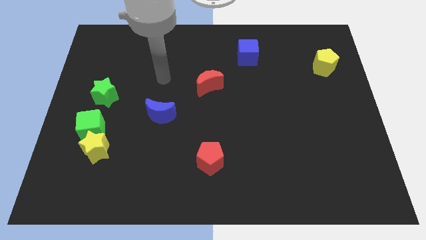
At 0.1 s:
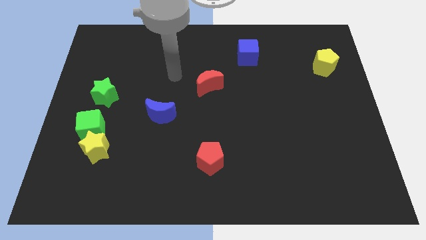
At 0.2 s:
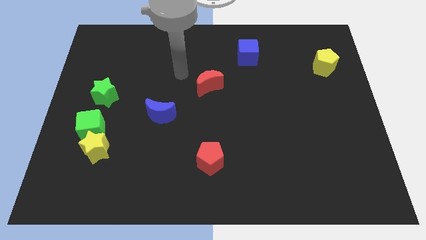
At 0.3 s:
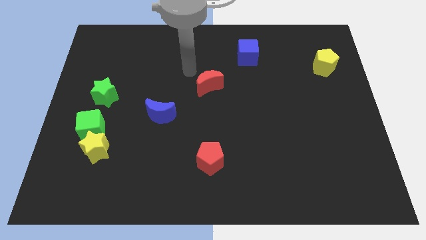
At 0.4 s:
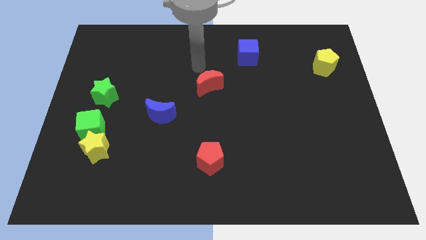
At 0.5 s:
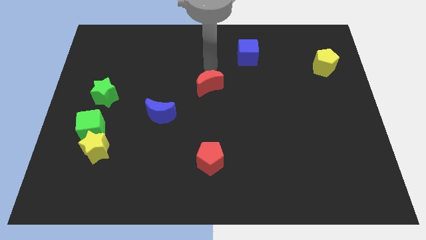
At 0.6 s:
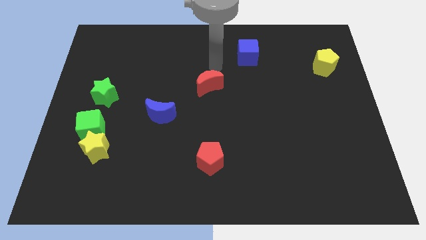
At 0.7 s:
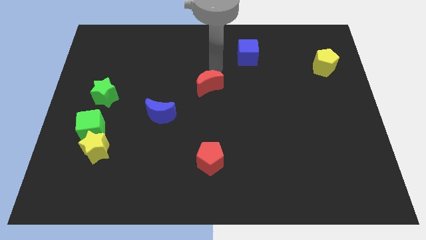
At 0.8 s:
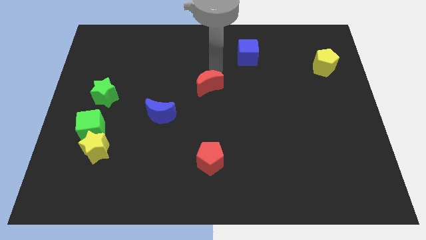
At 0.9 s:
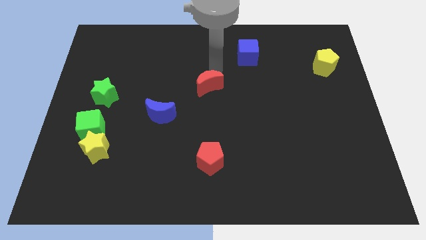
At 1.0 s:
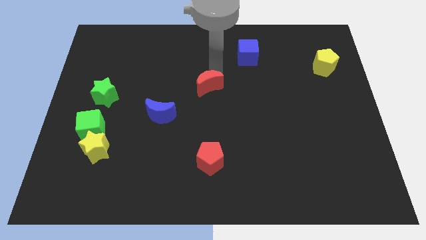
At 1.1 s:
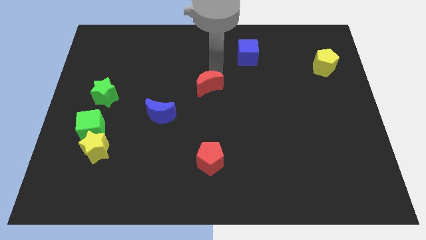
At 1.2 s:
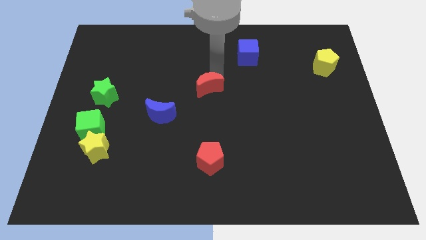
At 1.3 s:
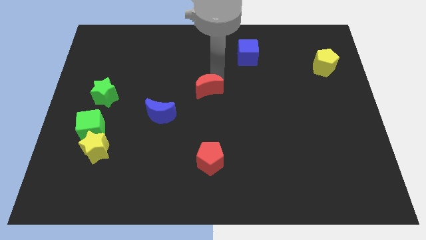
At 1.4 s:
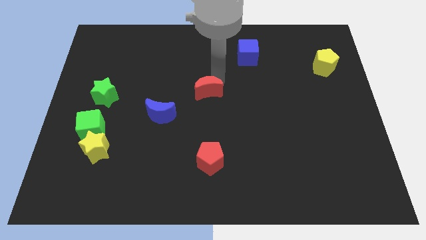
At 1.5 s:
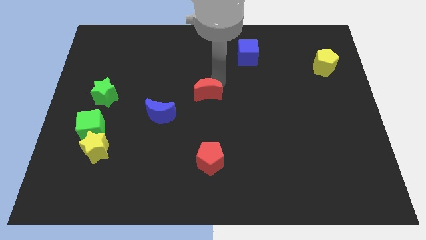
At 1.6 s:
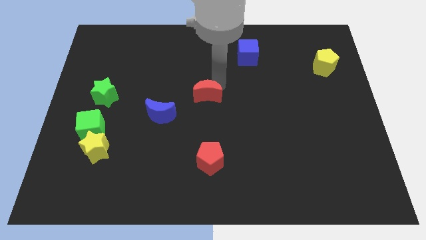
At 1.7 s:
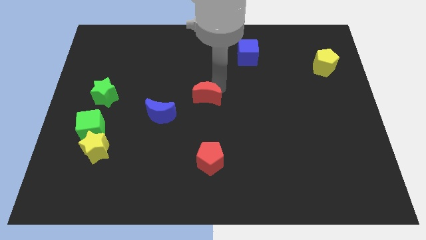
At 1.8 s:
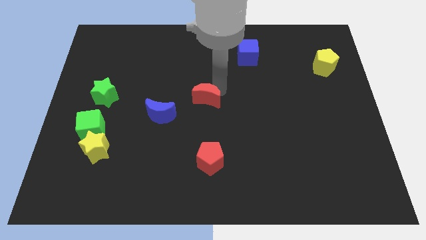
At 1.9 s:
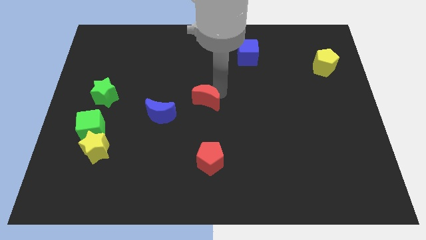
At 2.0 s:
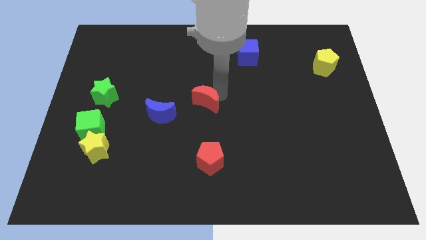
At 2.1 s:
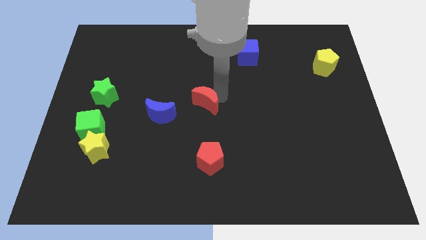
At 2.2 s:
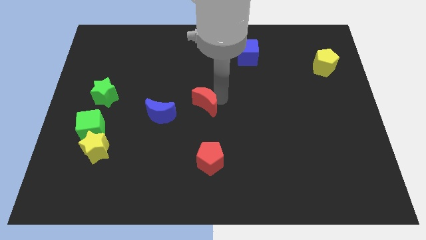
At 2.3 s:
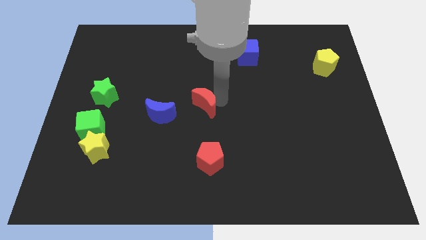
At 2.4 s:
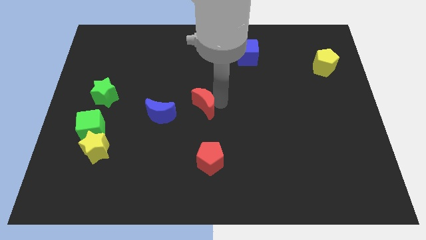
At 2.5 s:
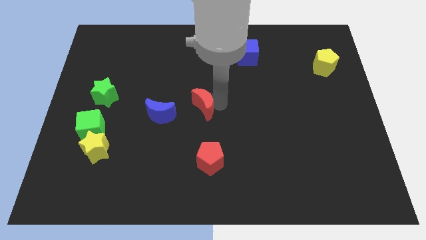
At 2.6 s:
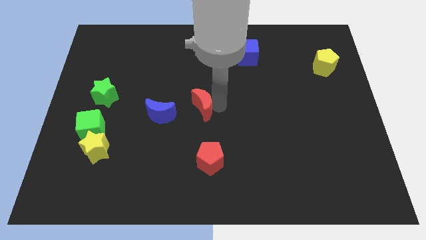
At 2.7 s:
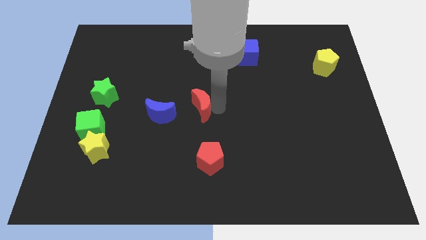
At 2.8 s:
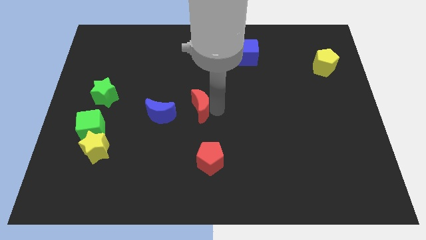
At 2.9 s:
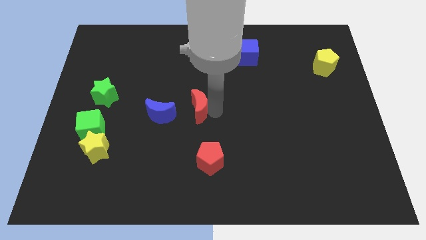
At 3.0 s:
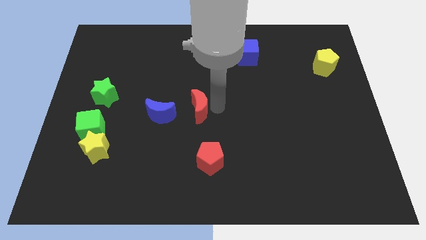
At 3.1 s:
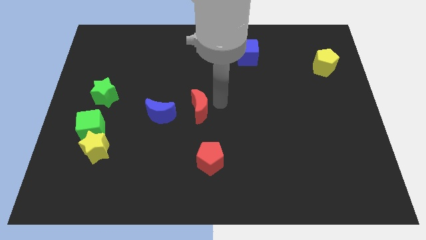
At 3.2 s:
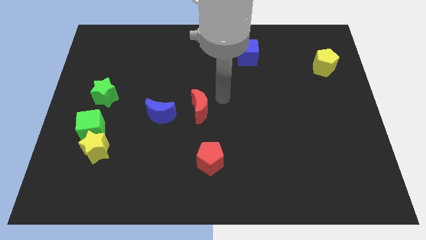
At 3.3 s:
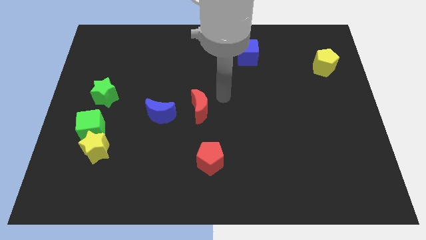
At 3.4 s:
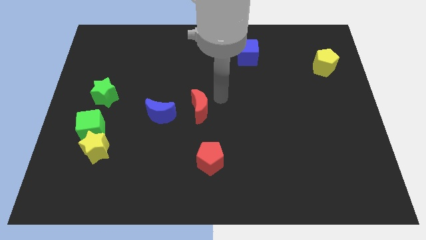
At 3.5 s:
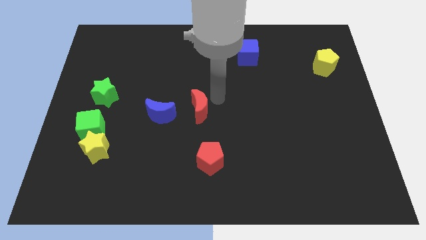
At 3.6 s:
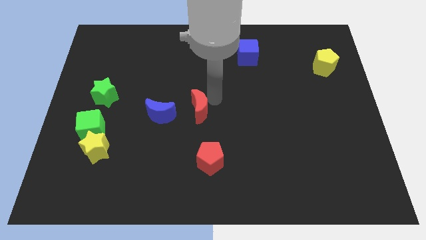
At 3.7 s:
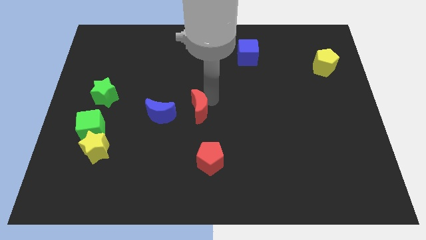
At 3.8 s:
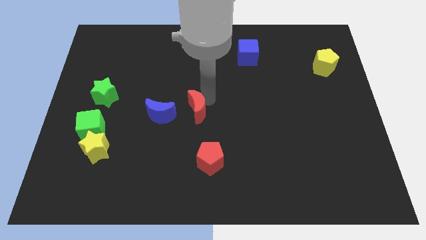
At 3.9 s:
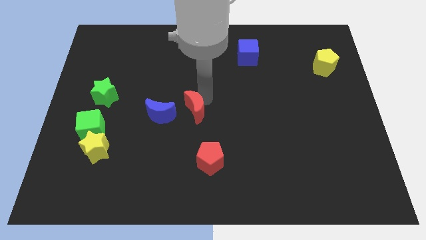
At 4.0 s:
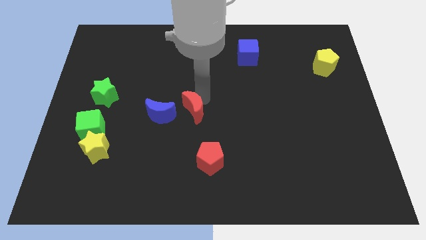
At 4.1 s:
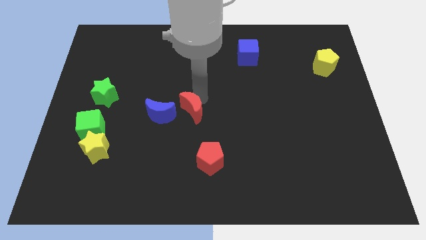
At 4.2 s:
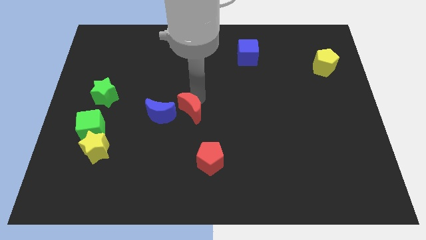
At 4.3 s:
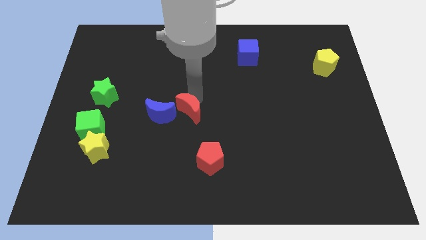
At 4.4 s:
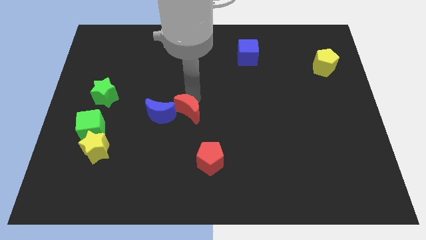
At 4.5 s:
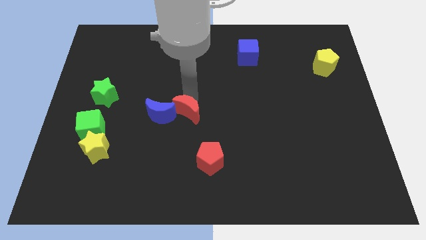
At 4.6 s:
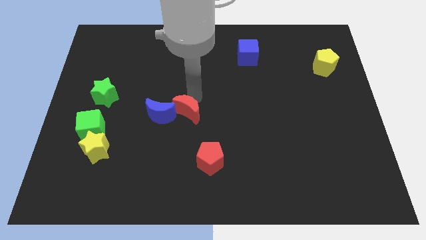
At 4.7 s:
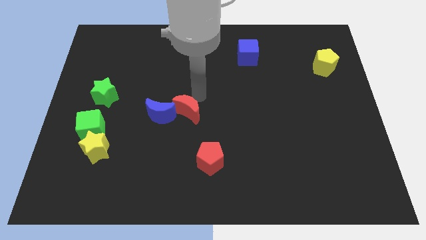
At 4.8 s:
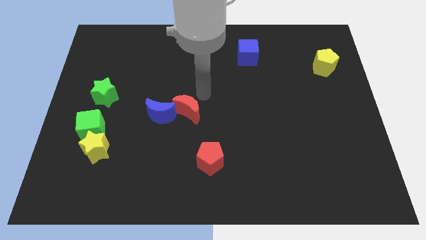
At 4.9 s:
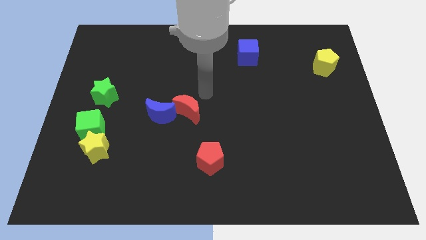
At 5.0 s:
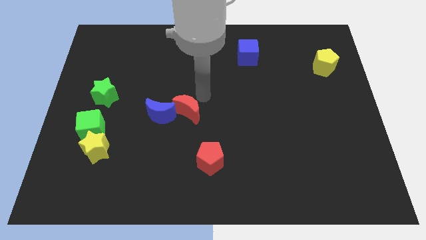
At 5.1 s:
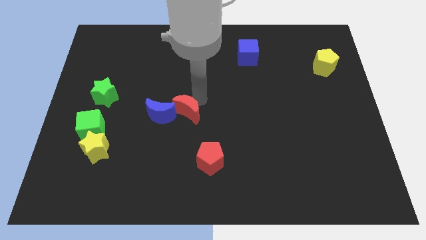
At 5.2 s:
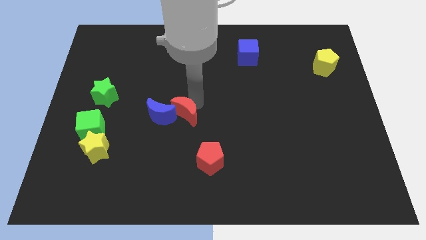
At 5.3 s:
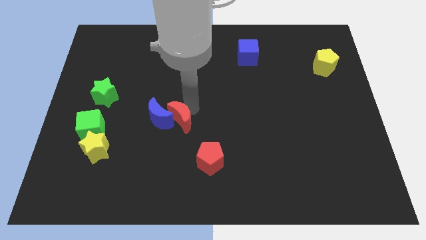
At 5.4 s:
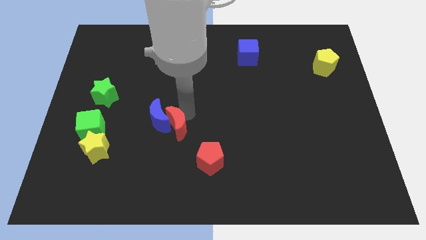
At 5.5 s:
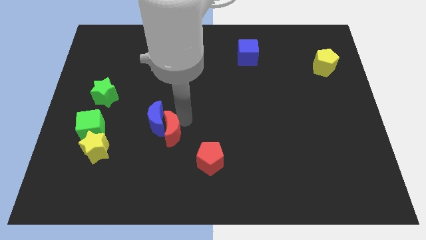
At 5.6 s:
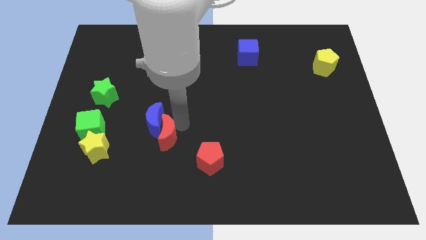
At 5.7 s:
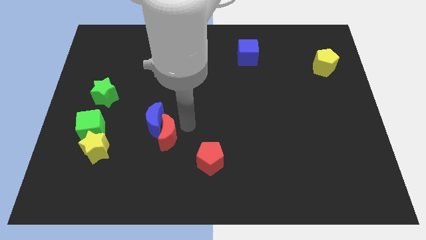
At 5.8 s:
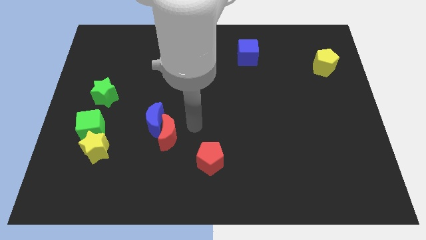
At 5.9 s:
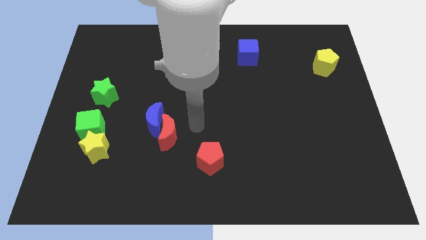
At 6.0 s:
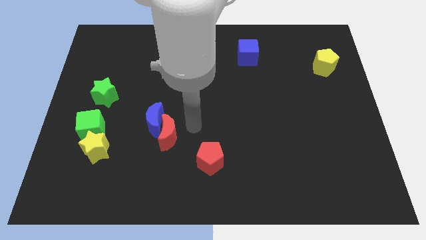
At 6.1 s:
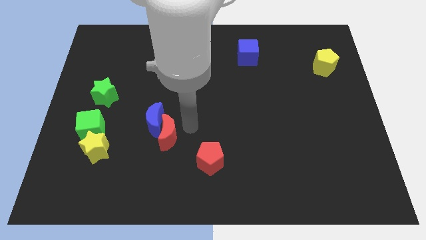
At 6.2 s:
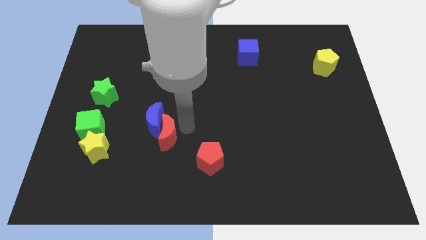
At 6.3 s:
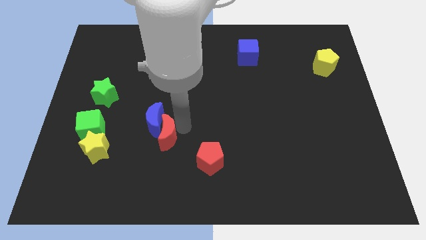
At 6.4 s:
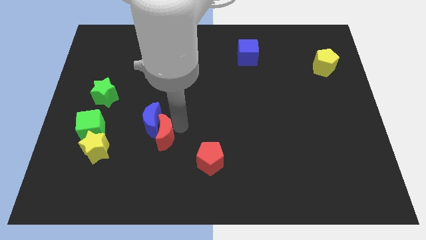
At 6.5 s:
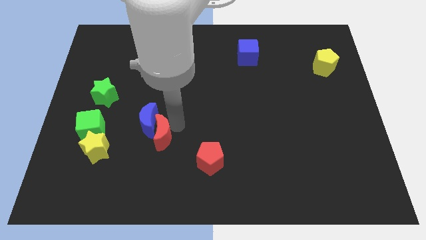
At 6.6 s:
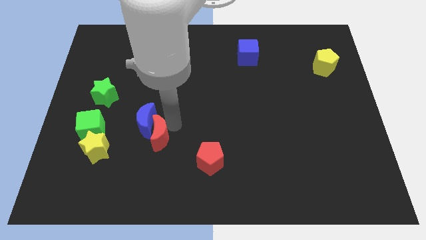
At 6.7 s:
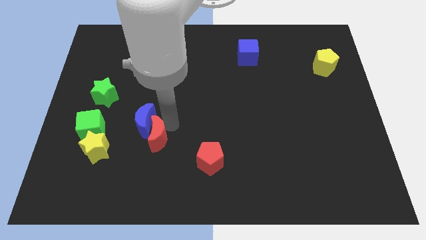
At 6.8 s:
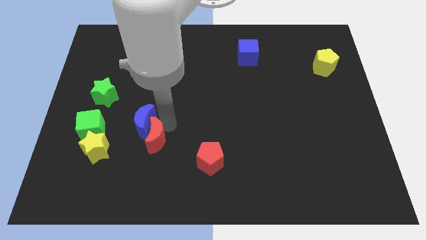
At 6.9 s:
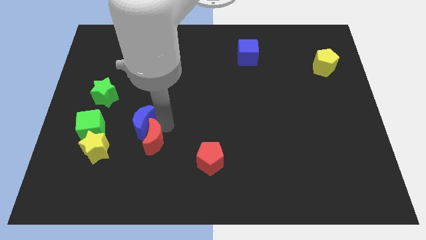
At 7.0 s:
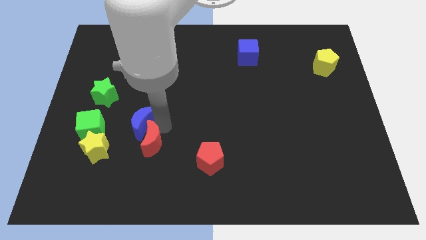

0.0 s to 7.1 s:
slide the red moon down and to the left

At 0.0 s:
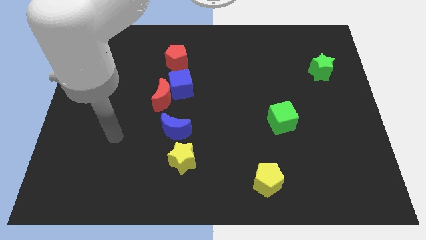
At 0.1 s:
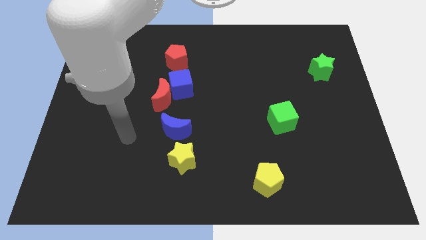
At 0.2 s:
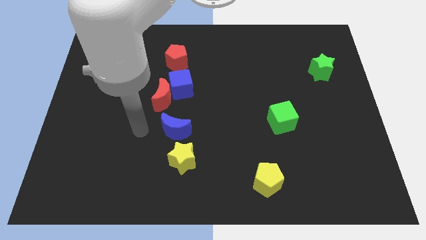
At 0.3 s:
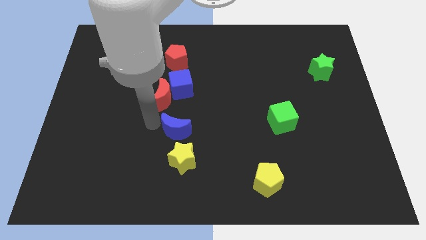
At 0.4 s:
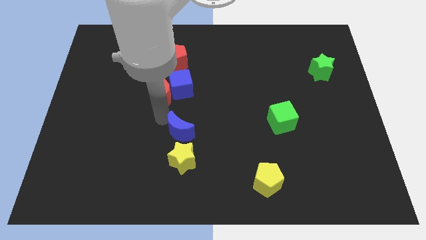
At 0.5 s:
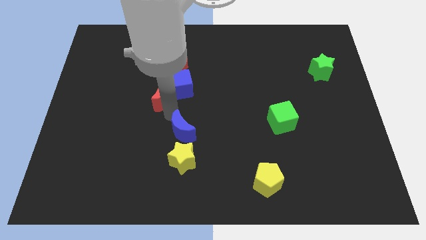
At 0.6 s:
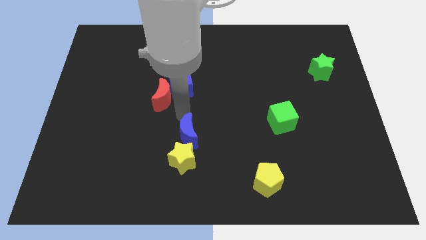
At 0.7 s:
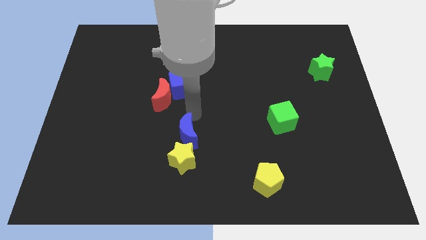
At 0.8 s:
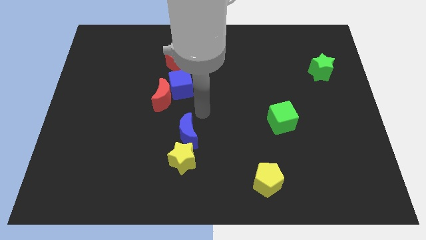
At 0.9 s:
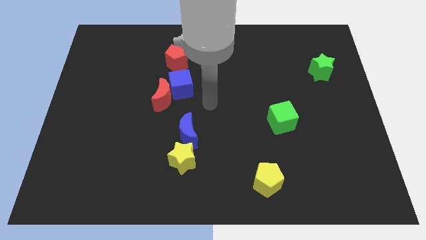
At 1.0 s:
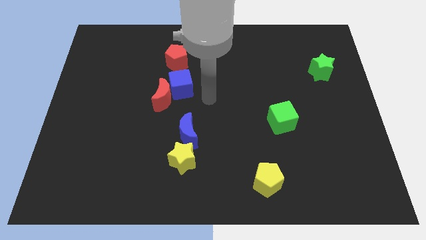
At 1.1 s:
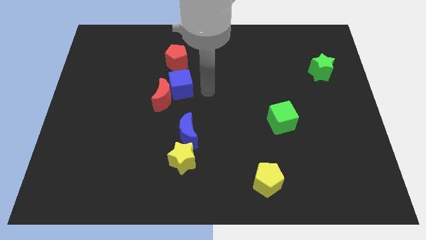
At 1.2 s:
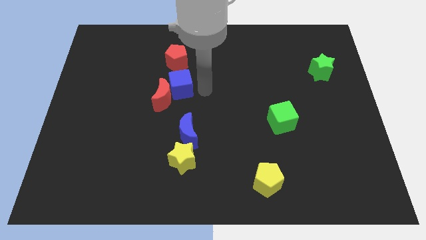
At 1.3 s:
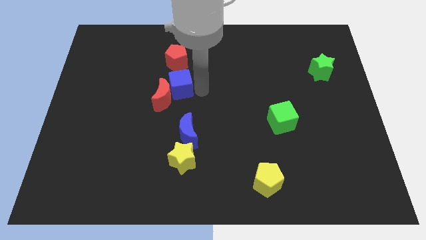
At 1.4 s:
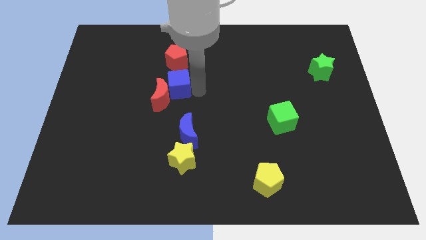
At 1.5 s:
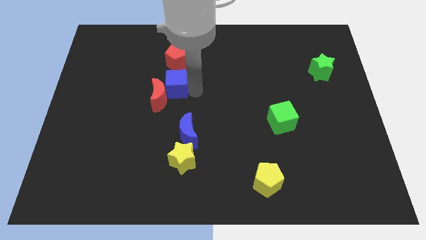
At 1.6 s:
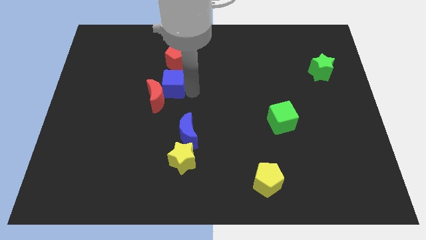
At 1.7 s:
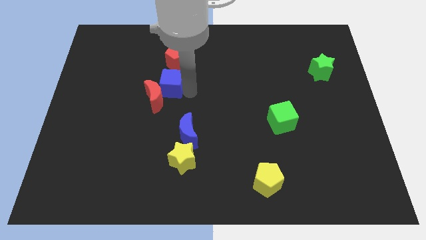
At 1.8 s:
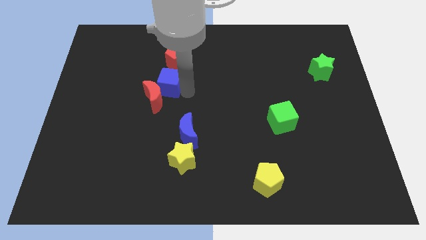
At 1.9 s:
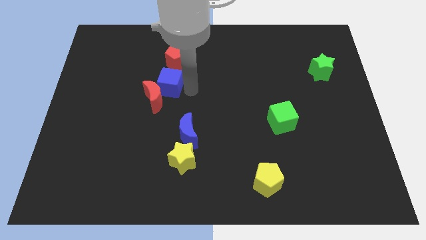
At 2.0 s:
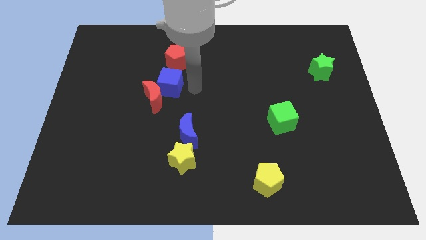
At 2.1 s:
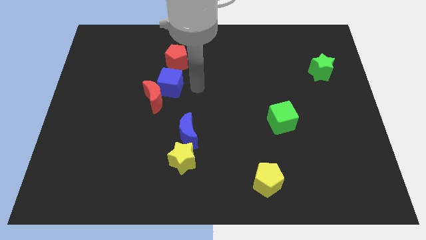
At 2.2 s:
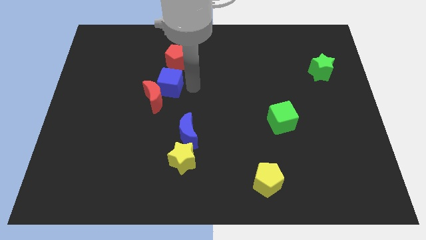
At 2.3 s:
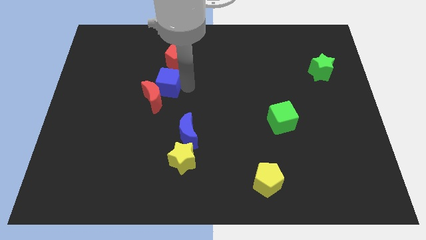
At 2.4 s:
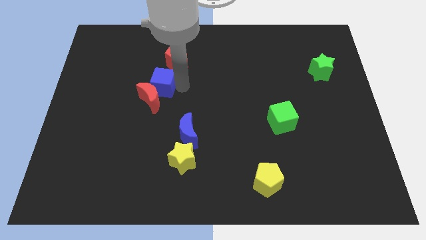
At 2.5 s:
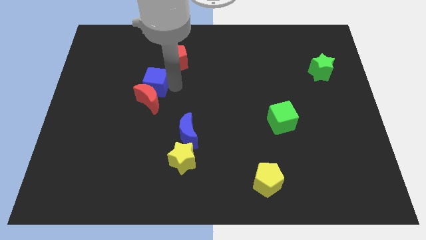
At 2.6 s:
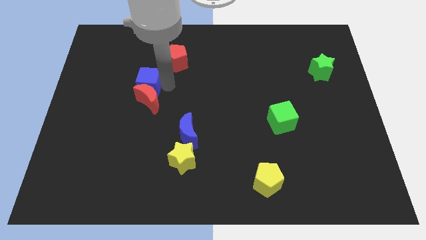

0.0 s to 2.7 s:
push the blue cube to the left a bit
